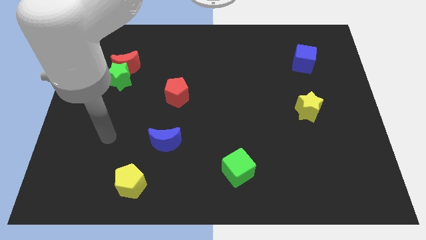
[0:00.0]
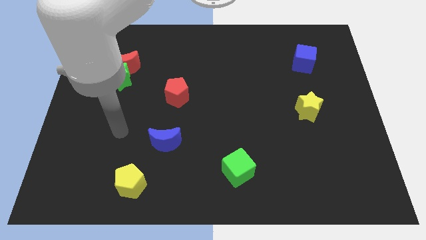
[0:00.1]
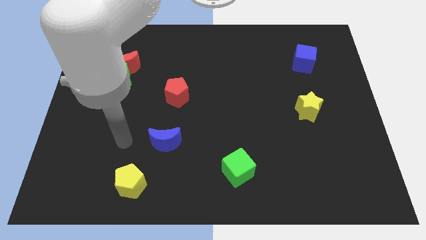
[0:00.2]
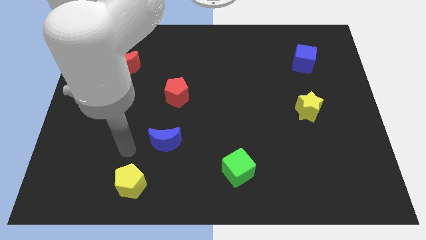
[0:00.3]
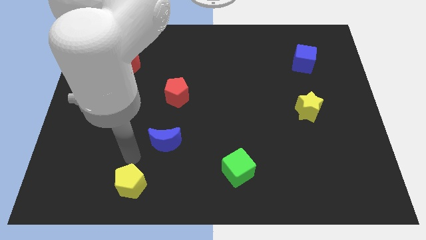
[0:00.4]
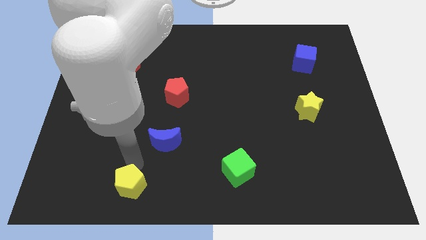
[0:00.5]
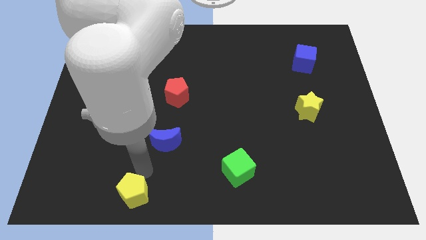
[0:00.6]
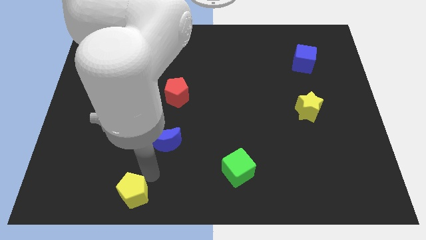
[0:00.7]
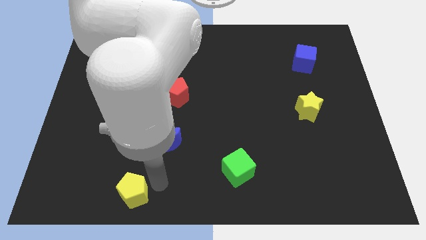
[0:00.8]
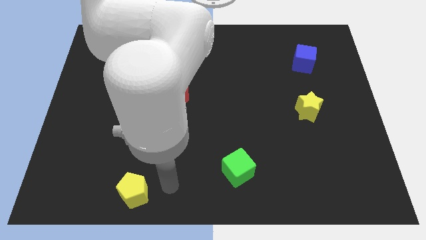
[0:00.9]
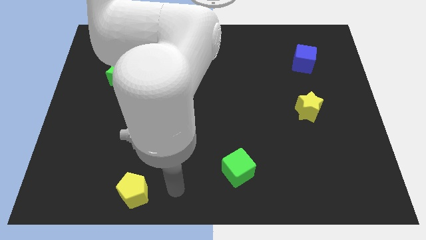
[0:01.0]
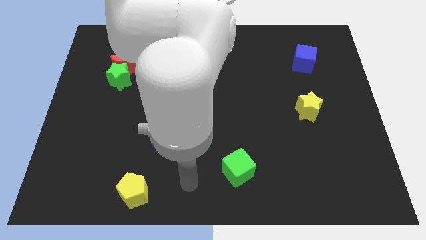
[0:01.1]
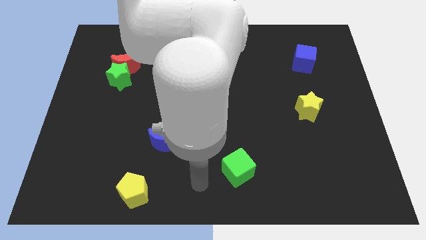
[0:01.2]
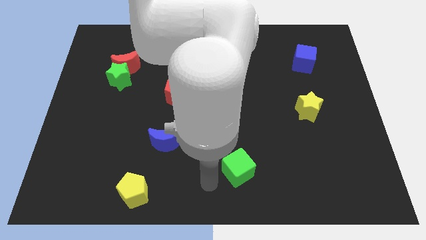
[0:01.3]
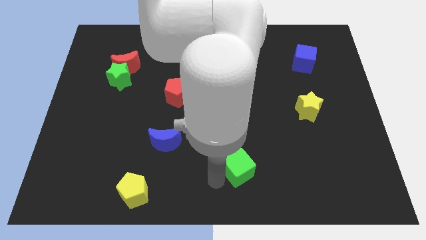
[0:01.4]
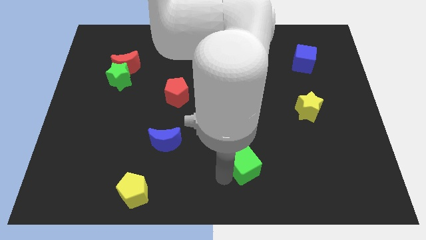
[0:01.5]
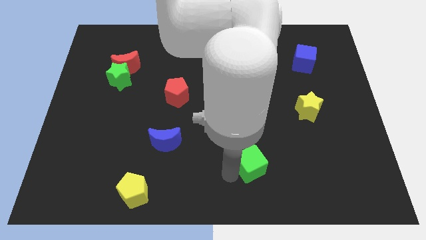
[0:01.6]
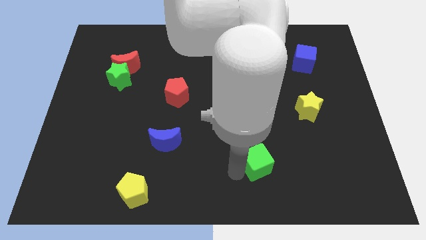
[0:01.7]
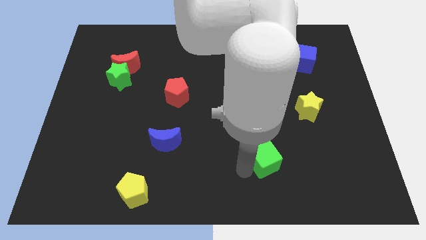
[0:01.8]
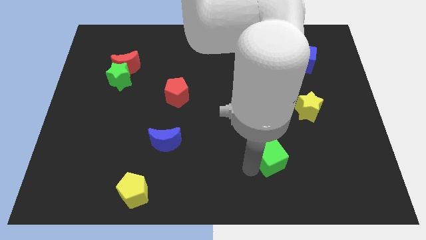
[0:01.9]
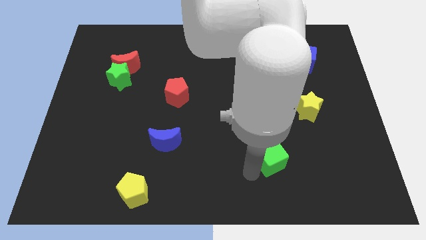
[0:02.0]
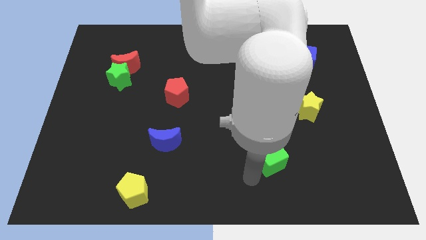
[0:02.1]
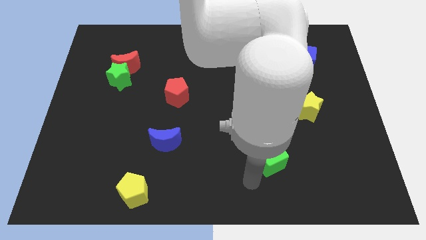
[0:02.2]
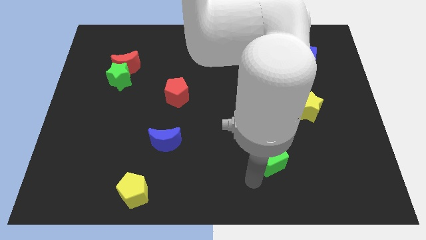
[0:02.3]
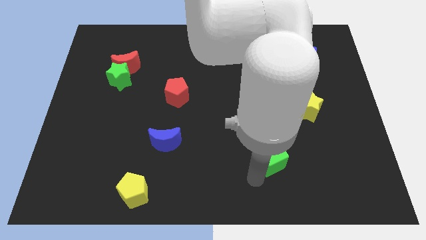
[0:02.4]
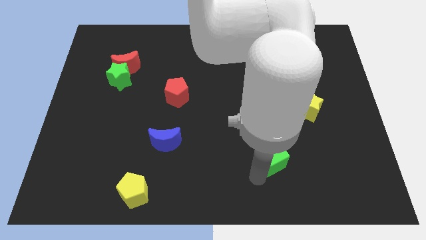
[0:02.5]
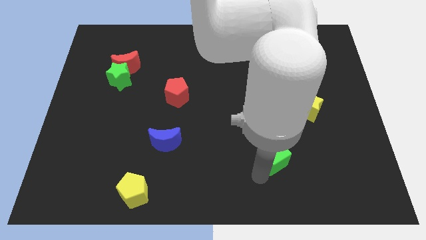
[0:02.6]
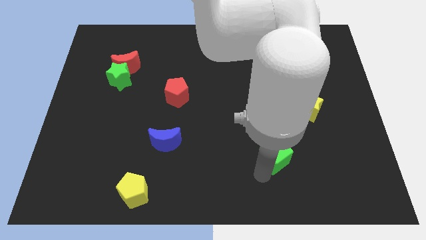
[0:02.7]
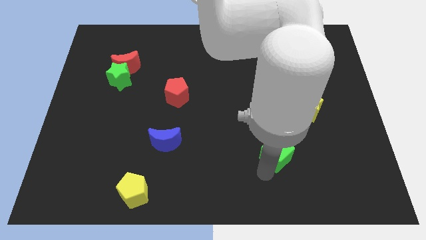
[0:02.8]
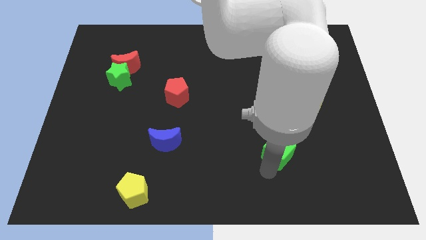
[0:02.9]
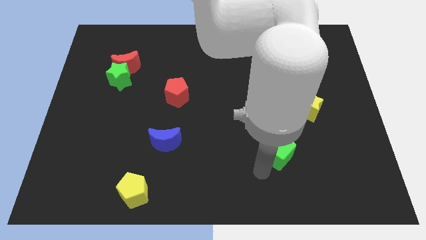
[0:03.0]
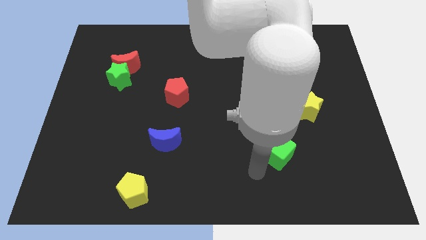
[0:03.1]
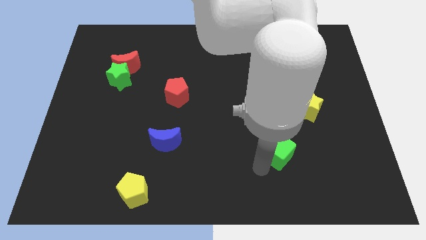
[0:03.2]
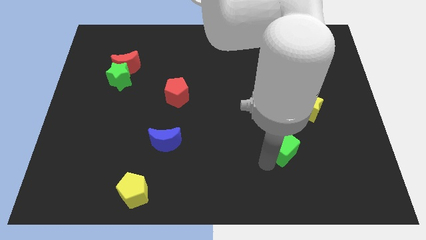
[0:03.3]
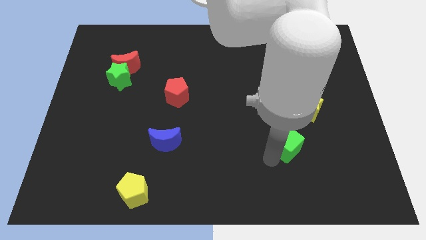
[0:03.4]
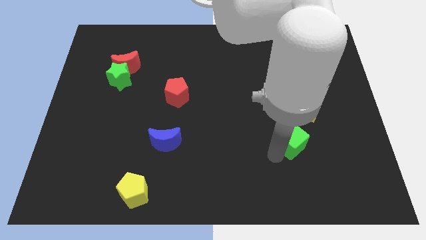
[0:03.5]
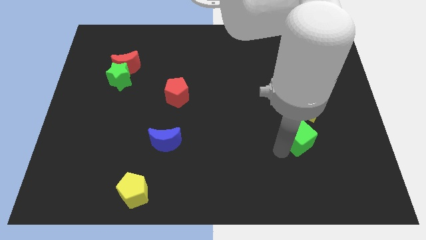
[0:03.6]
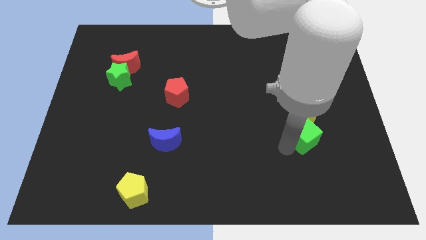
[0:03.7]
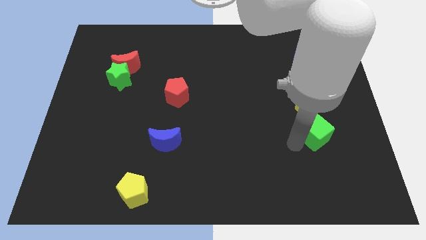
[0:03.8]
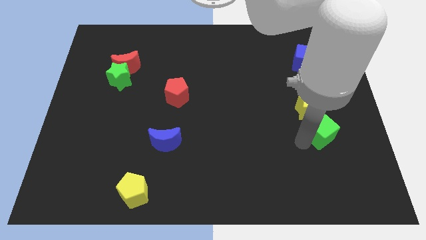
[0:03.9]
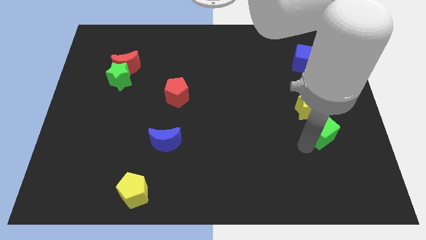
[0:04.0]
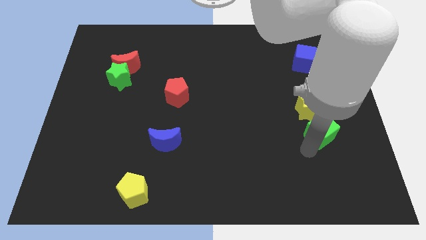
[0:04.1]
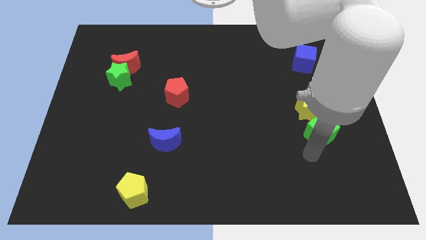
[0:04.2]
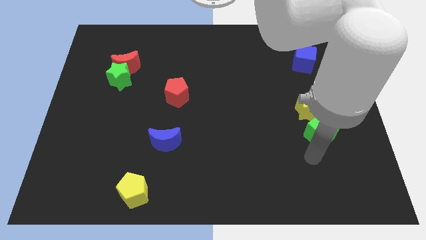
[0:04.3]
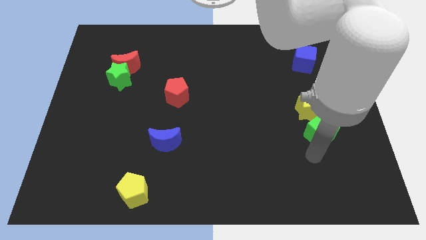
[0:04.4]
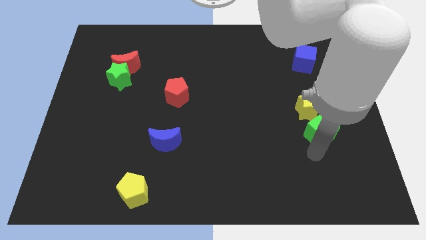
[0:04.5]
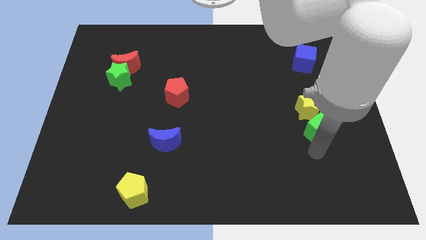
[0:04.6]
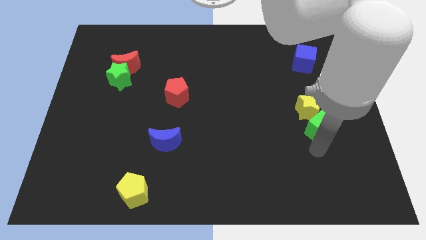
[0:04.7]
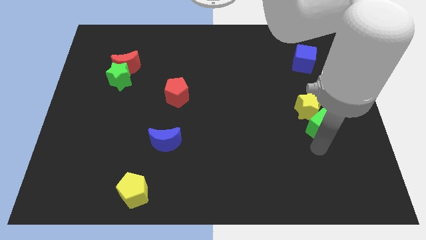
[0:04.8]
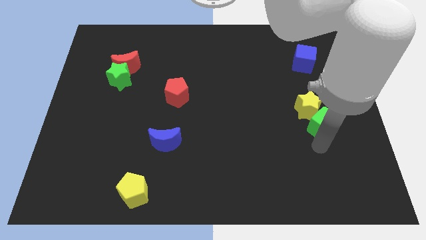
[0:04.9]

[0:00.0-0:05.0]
move the green cube up and right diagonally

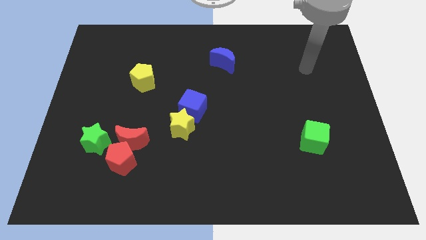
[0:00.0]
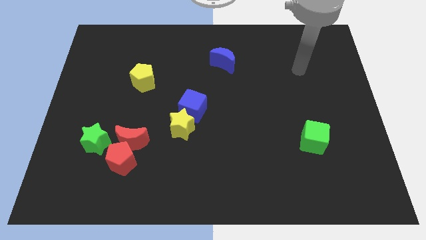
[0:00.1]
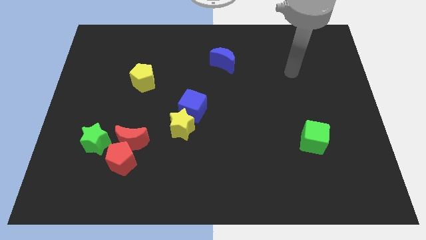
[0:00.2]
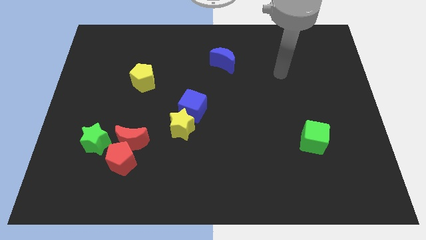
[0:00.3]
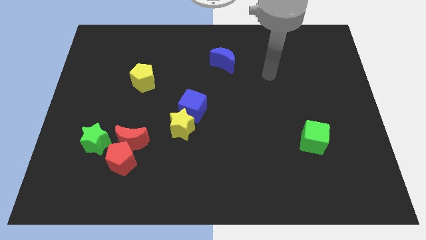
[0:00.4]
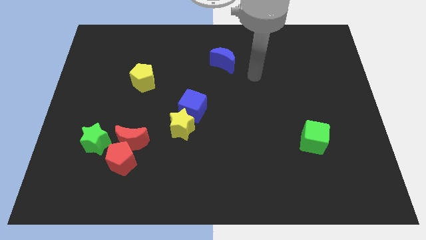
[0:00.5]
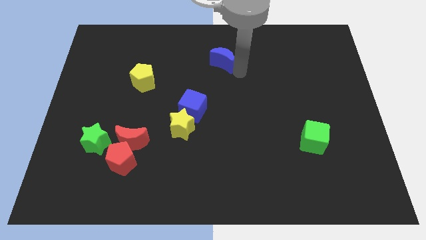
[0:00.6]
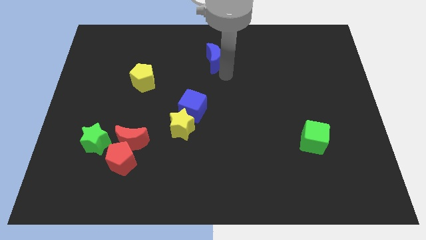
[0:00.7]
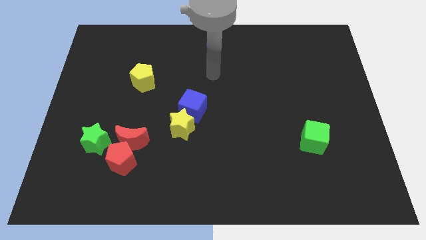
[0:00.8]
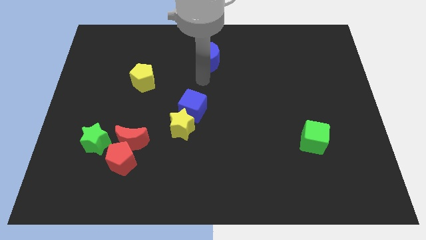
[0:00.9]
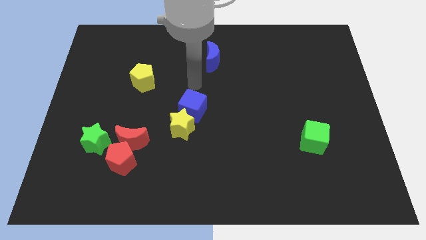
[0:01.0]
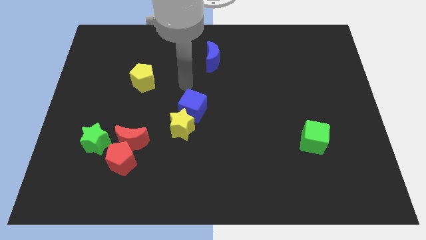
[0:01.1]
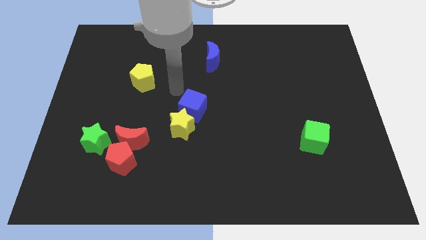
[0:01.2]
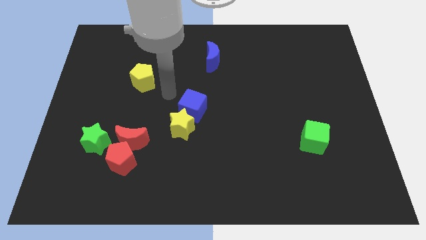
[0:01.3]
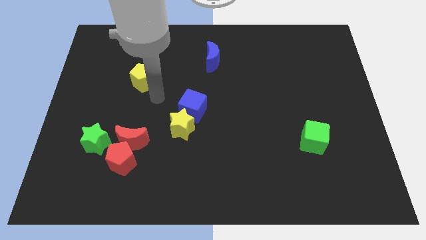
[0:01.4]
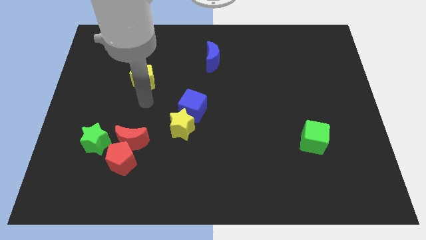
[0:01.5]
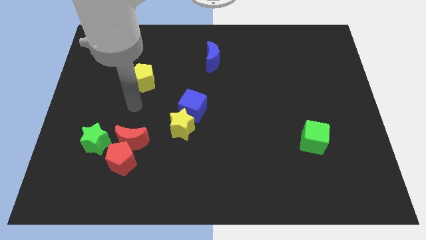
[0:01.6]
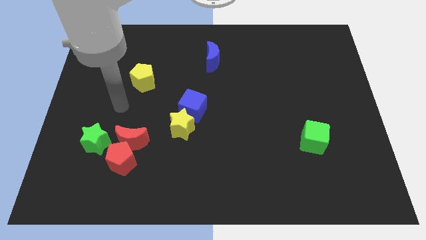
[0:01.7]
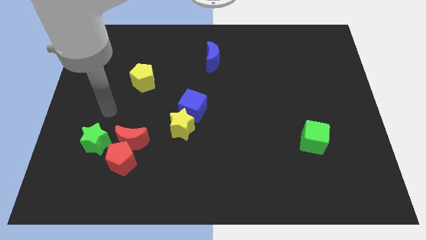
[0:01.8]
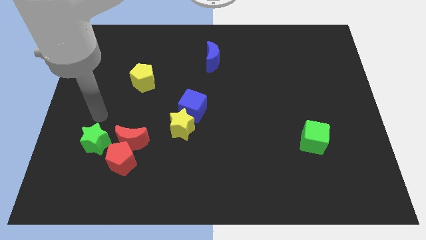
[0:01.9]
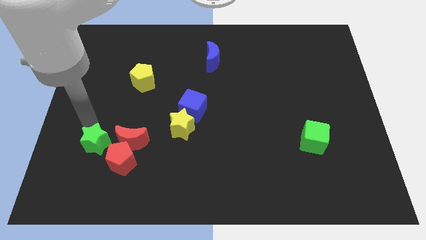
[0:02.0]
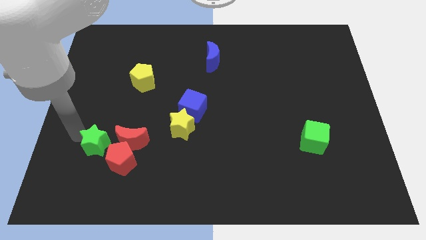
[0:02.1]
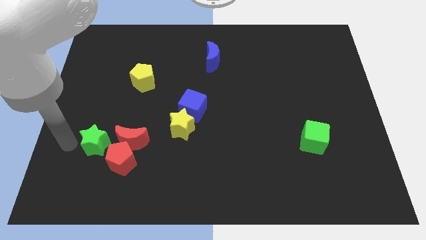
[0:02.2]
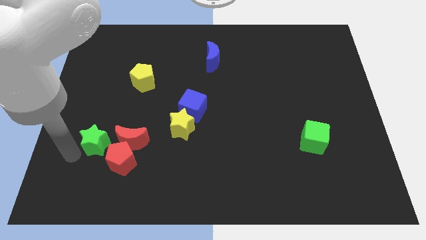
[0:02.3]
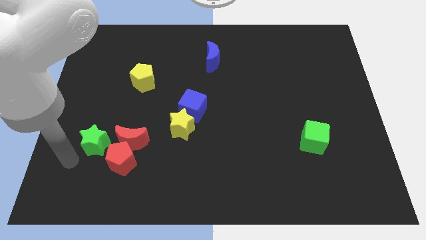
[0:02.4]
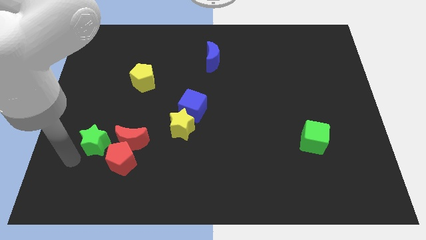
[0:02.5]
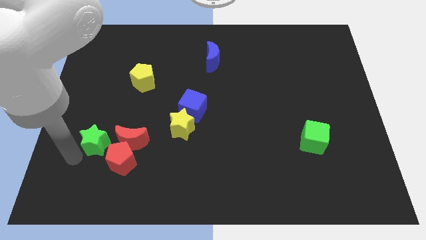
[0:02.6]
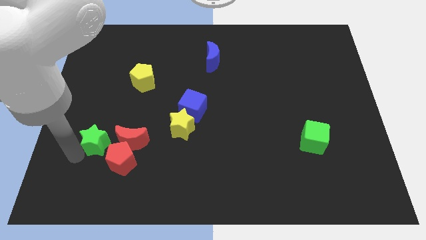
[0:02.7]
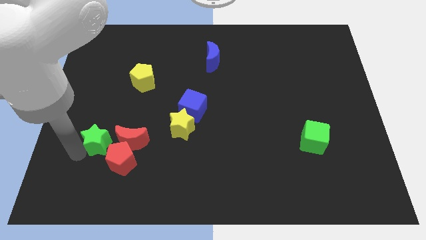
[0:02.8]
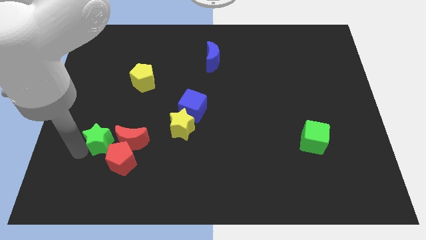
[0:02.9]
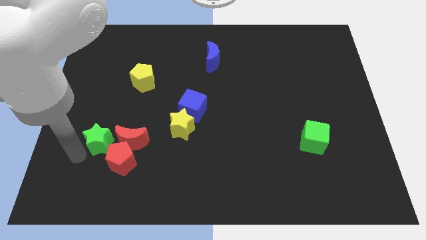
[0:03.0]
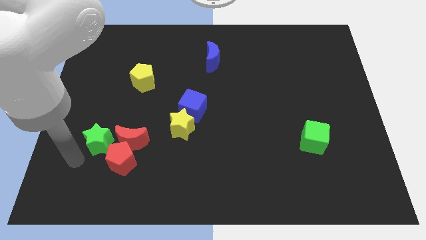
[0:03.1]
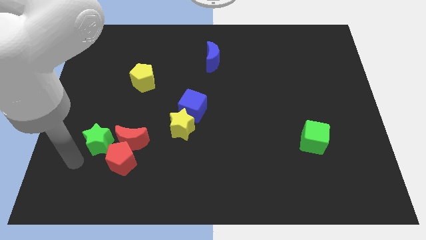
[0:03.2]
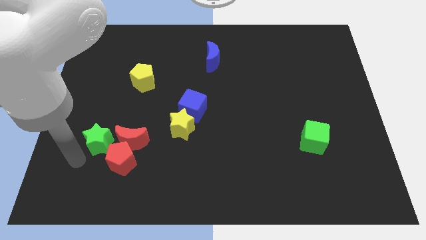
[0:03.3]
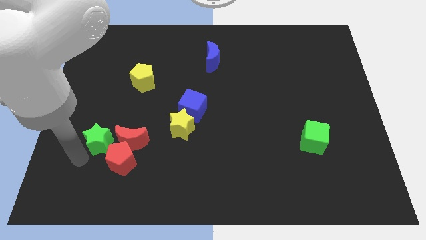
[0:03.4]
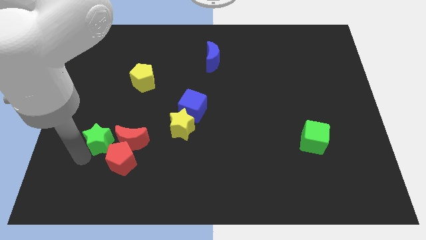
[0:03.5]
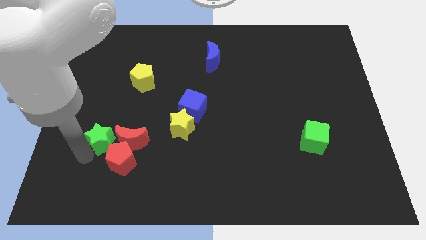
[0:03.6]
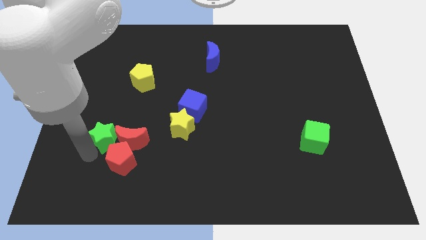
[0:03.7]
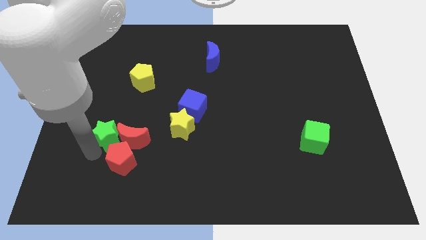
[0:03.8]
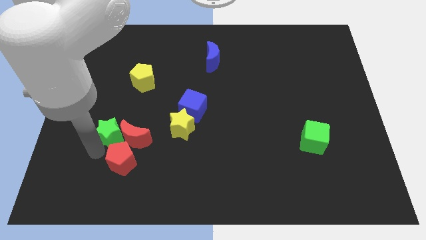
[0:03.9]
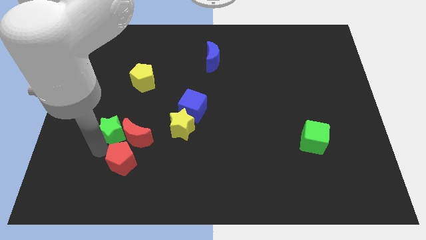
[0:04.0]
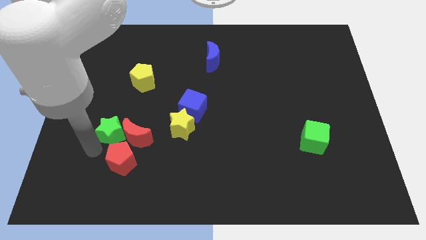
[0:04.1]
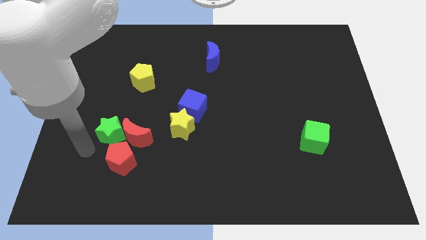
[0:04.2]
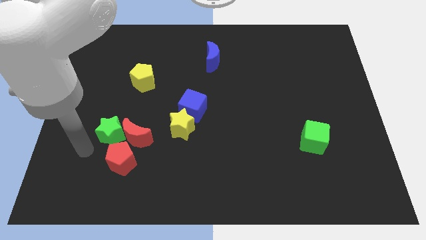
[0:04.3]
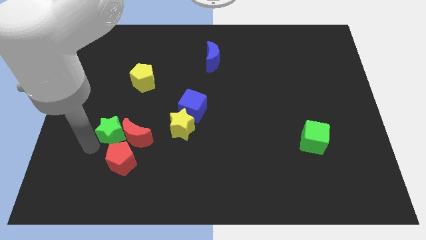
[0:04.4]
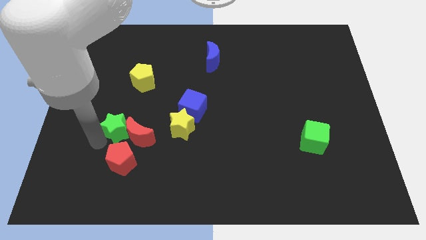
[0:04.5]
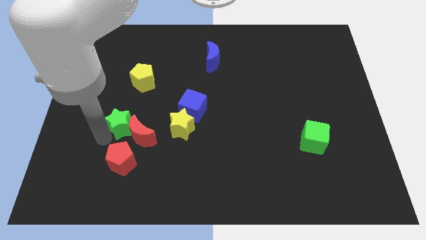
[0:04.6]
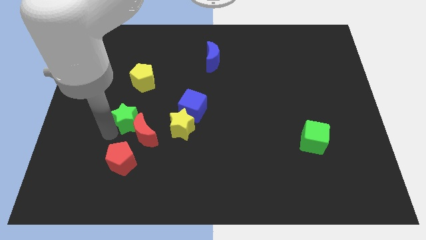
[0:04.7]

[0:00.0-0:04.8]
slide the green star diagonally up and right somewhat
